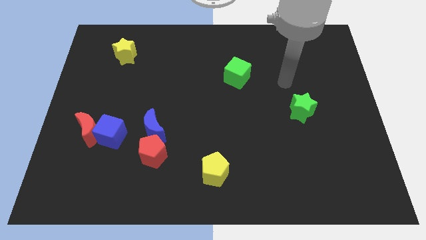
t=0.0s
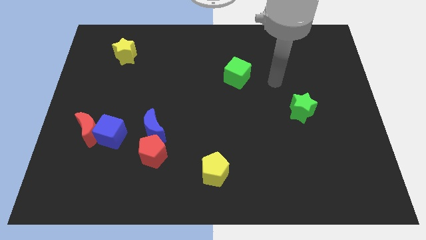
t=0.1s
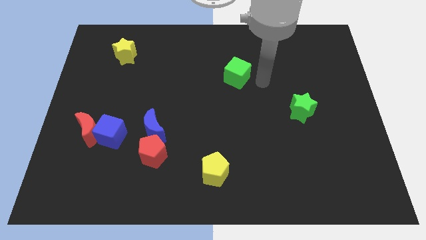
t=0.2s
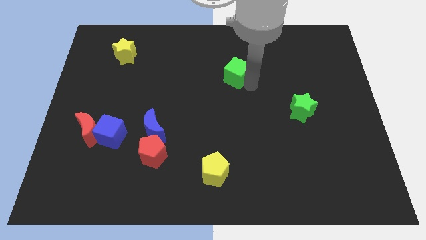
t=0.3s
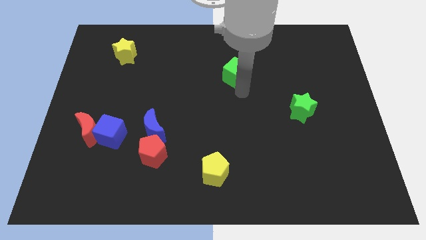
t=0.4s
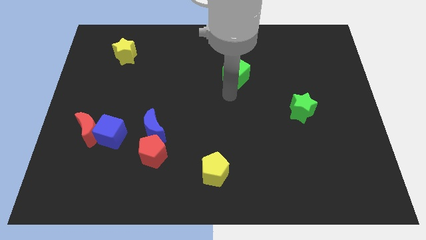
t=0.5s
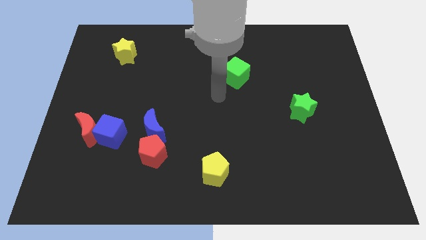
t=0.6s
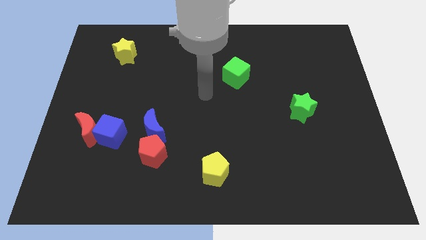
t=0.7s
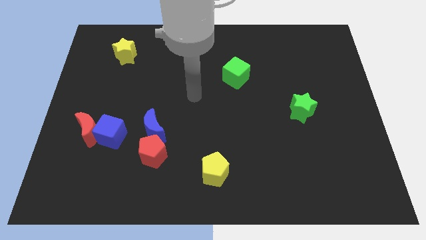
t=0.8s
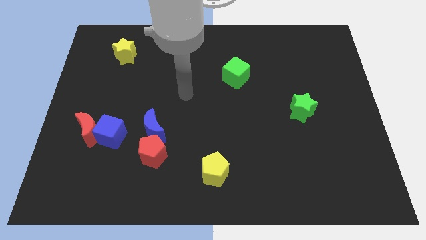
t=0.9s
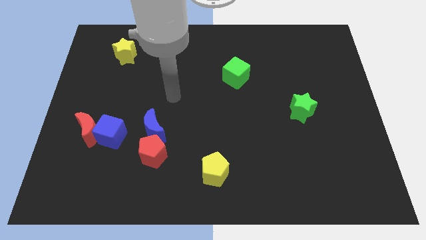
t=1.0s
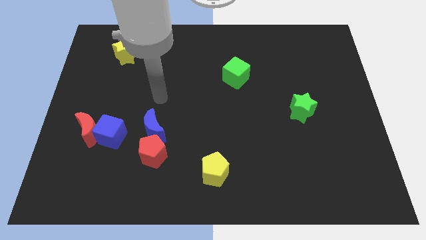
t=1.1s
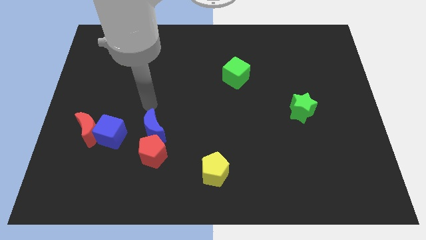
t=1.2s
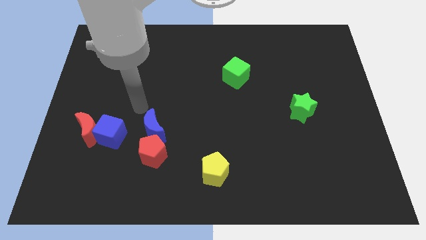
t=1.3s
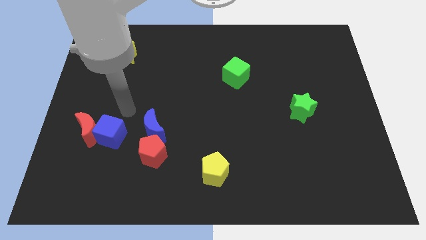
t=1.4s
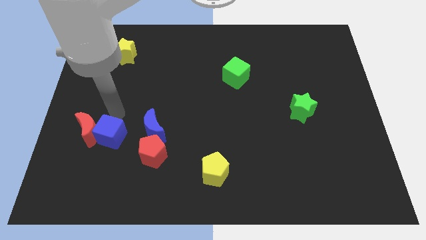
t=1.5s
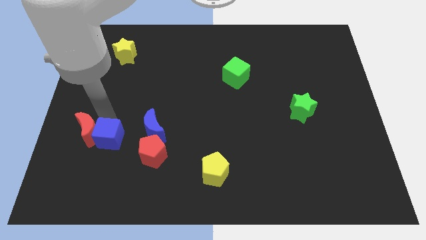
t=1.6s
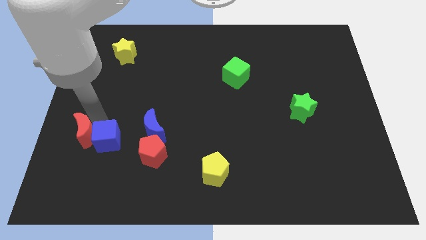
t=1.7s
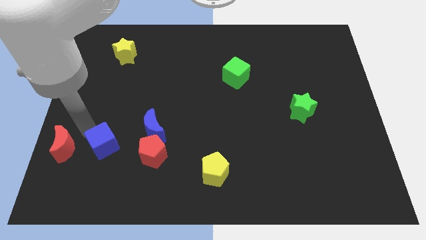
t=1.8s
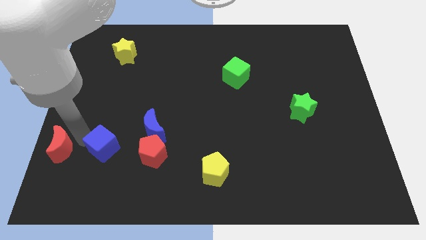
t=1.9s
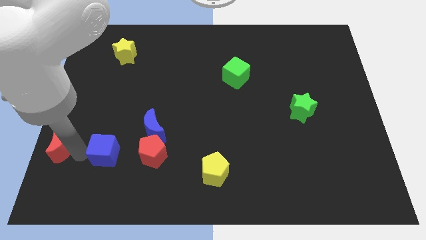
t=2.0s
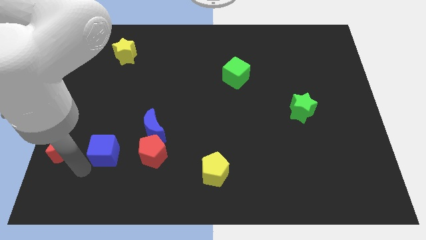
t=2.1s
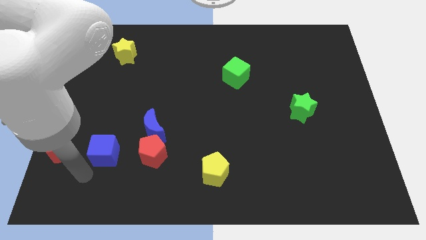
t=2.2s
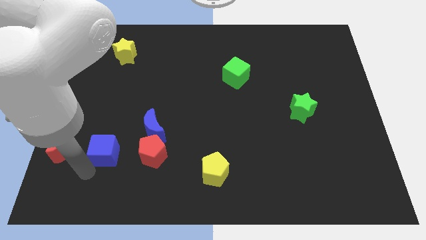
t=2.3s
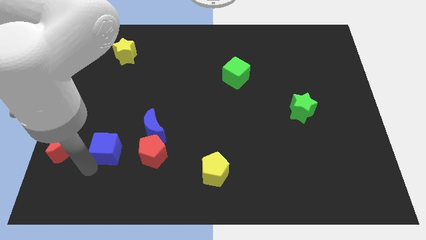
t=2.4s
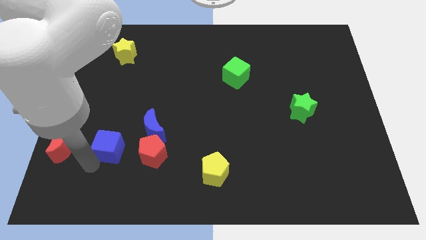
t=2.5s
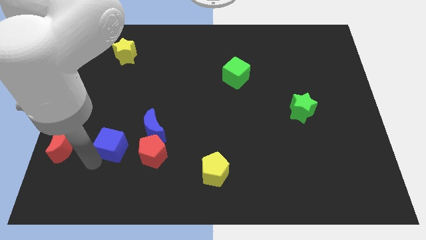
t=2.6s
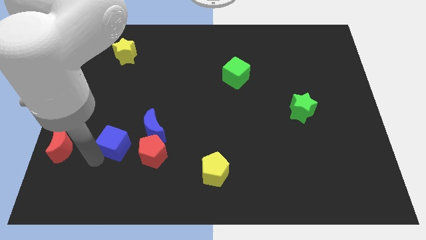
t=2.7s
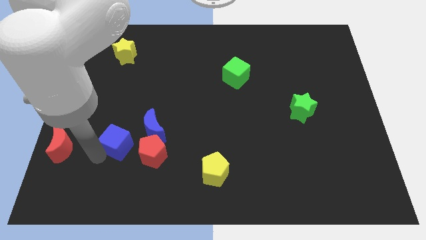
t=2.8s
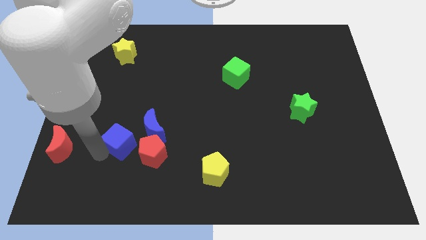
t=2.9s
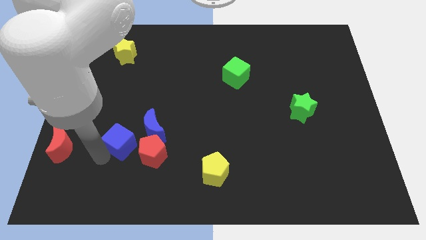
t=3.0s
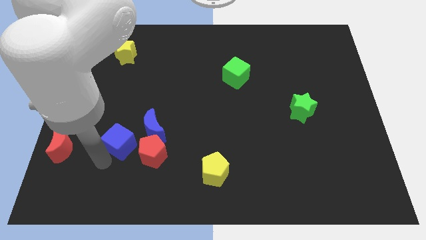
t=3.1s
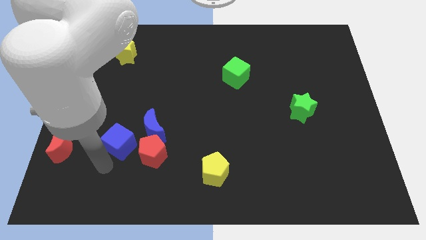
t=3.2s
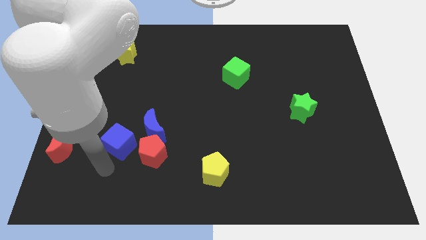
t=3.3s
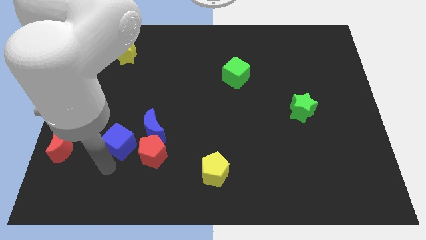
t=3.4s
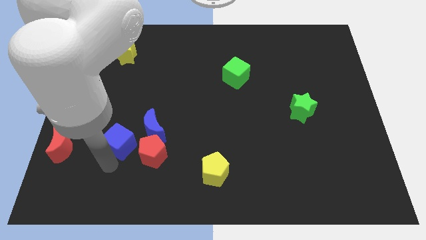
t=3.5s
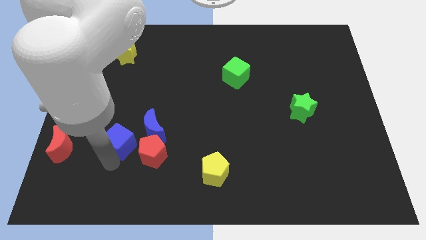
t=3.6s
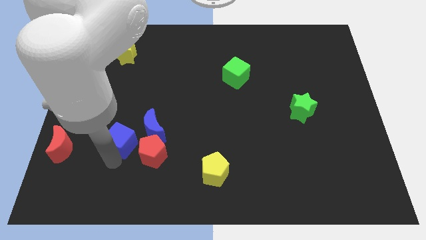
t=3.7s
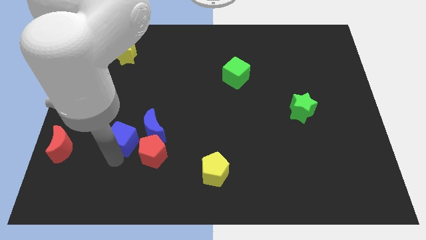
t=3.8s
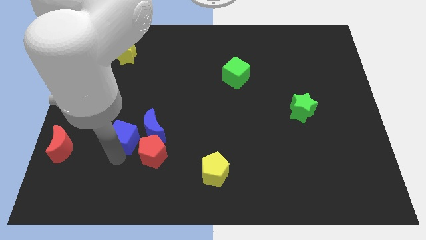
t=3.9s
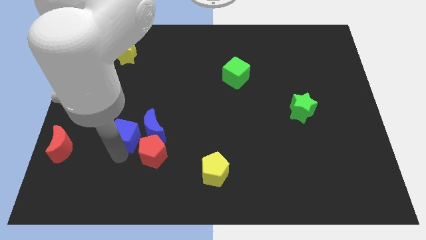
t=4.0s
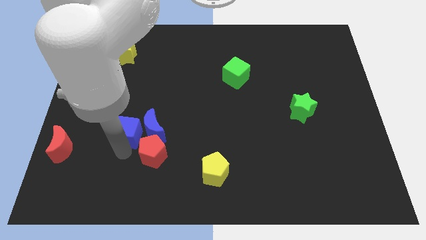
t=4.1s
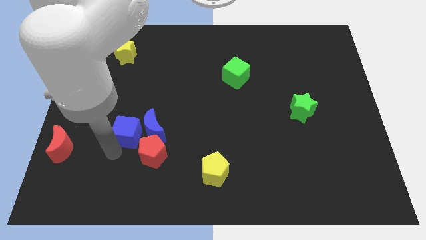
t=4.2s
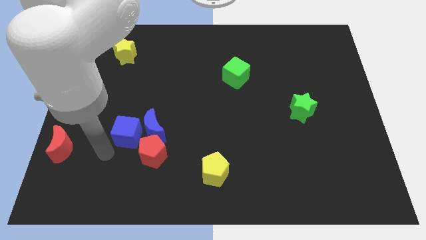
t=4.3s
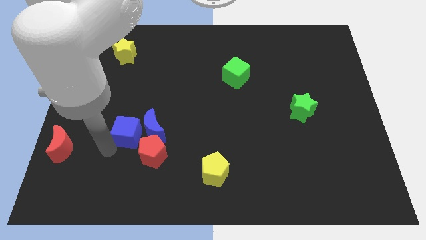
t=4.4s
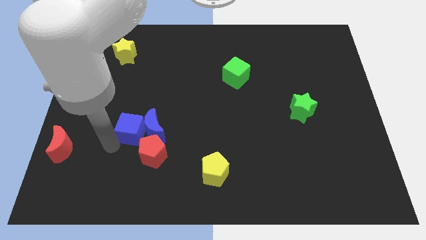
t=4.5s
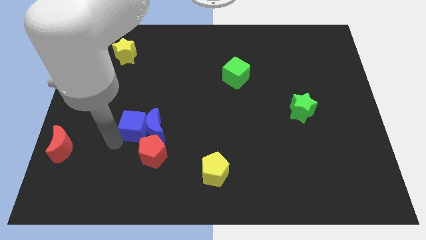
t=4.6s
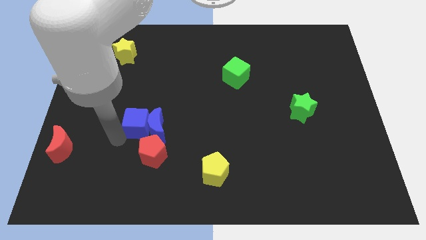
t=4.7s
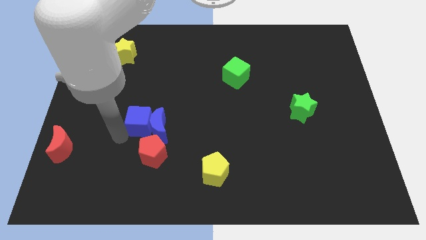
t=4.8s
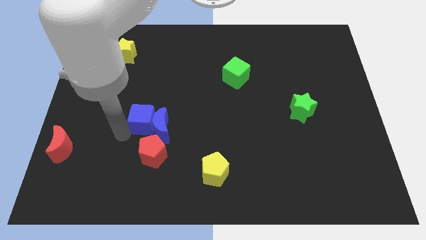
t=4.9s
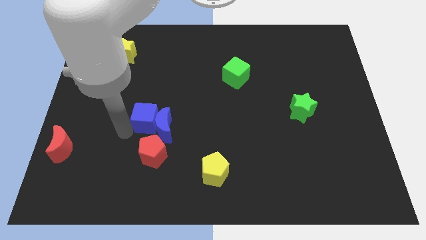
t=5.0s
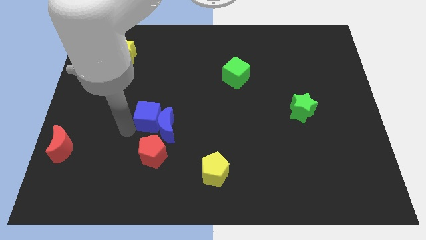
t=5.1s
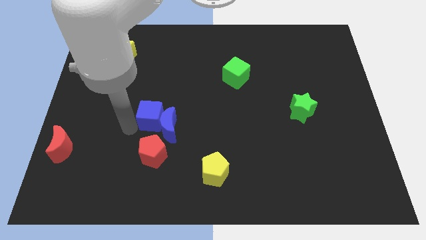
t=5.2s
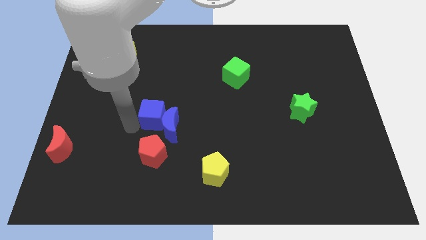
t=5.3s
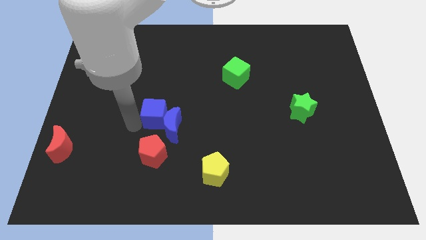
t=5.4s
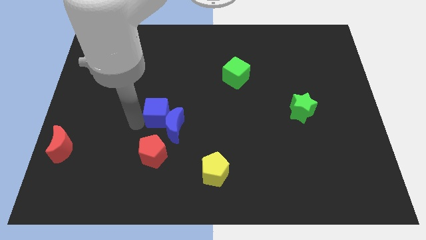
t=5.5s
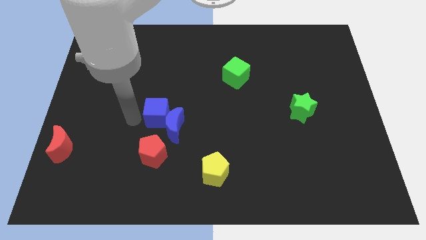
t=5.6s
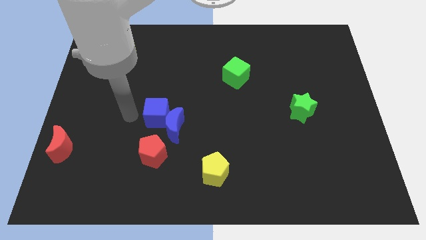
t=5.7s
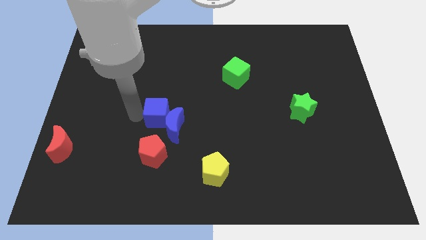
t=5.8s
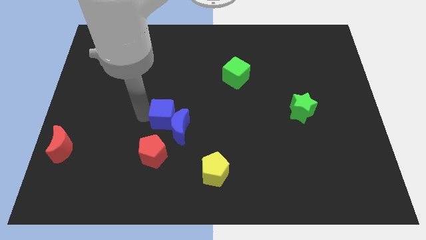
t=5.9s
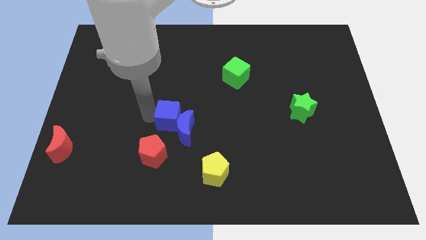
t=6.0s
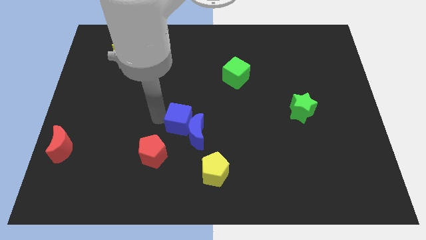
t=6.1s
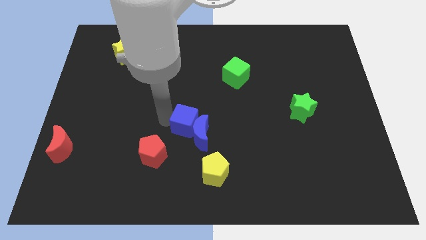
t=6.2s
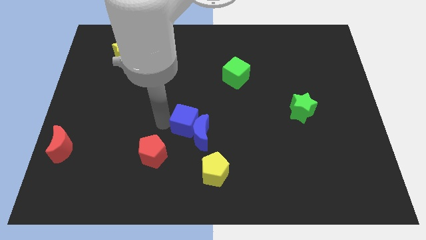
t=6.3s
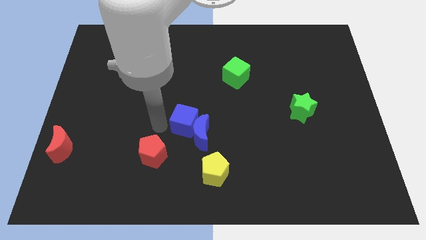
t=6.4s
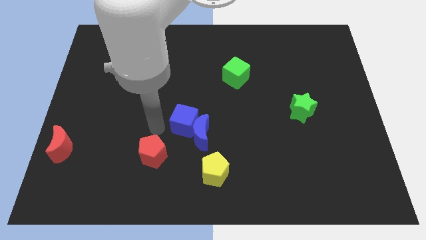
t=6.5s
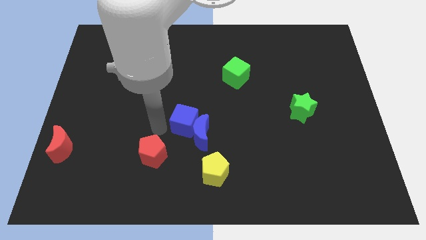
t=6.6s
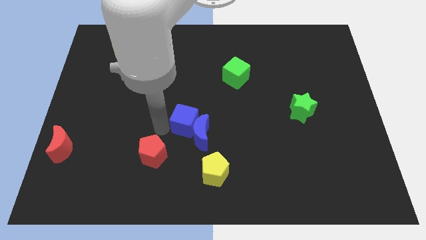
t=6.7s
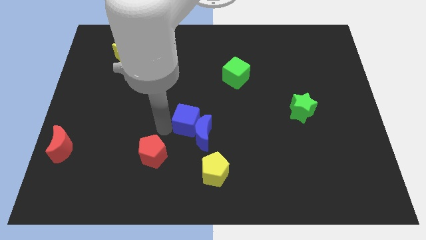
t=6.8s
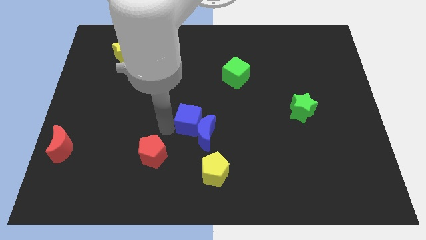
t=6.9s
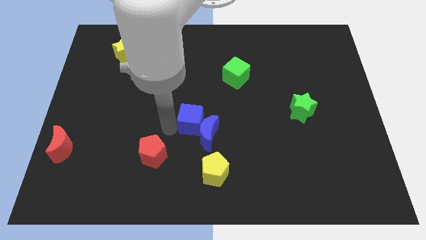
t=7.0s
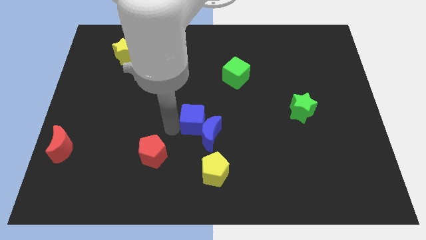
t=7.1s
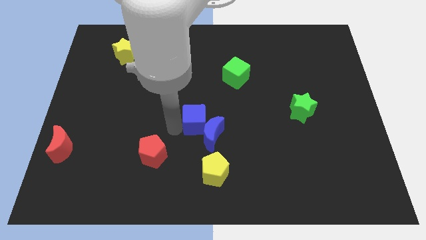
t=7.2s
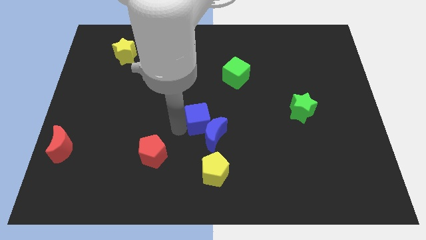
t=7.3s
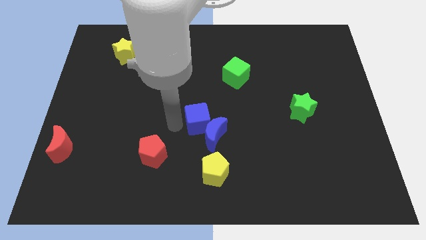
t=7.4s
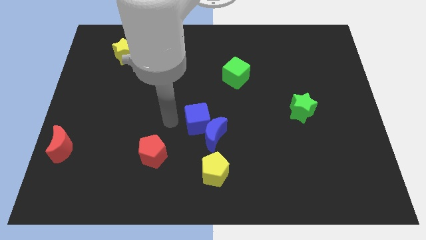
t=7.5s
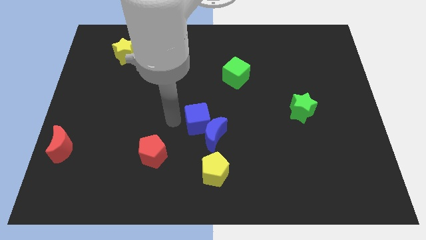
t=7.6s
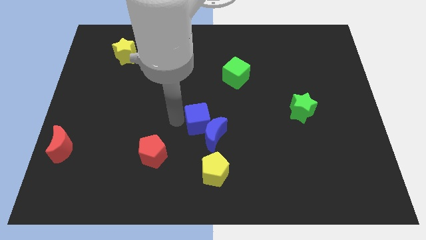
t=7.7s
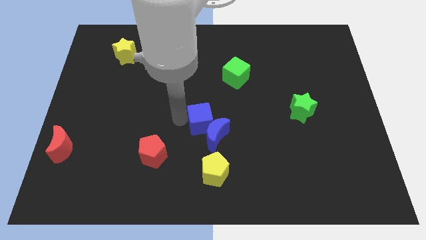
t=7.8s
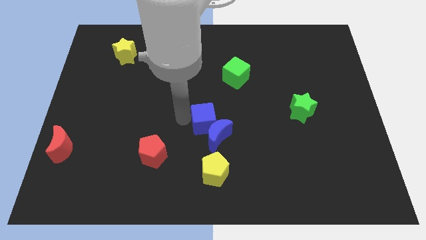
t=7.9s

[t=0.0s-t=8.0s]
push the blue cube right
